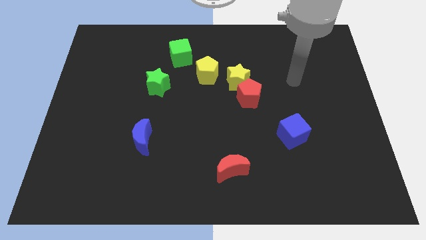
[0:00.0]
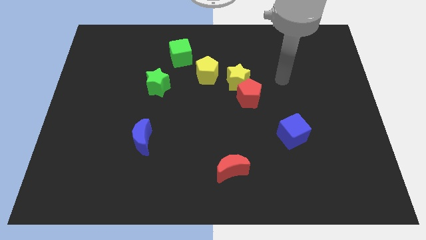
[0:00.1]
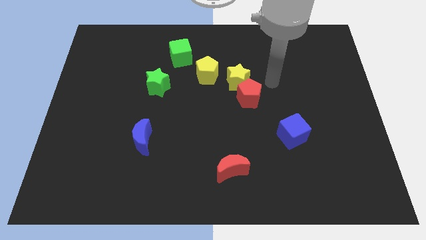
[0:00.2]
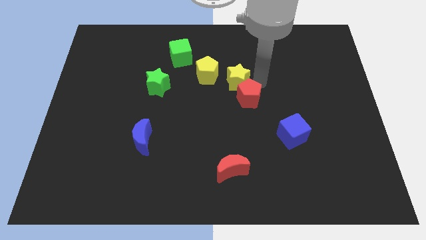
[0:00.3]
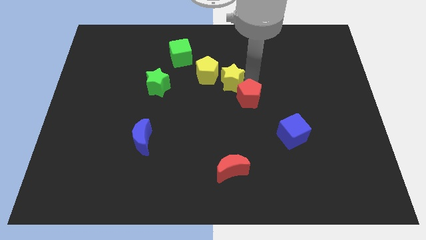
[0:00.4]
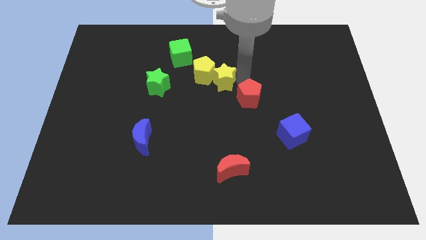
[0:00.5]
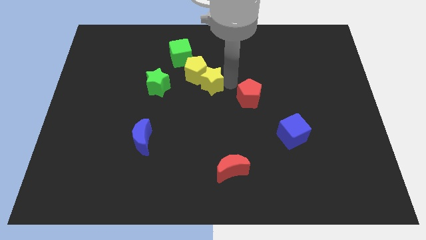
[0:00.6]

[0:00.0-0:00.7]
move the red pentagon away from the yellow star

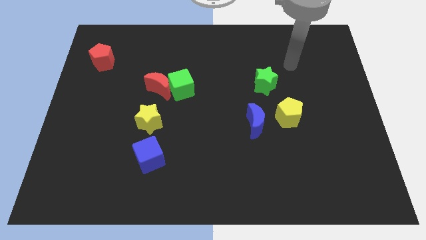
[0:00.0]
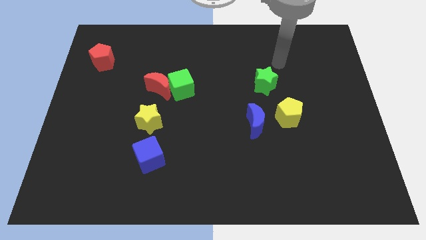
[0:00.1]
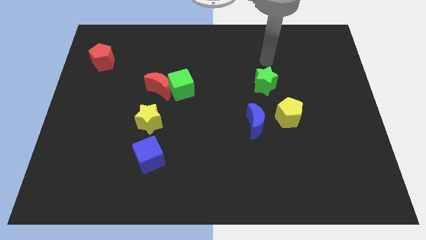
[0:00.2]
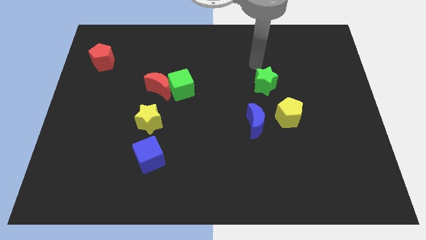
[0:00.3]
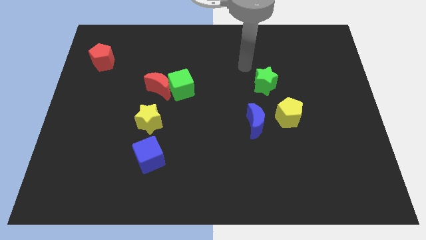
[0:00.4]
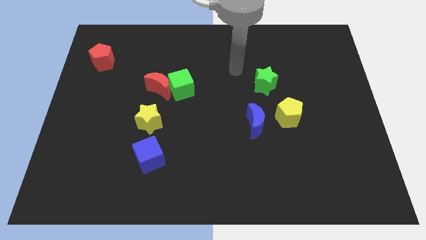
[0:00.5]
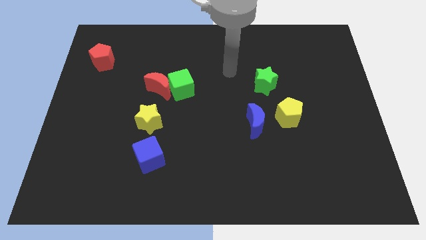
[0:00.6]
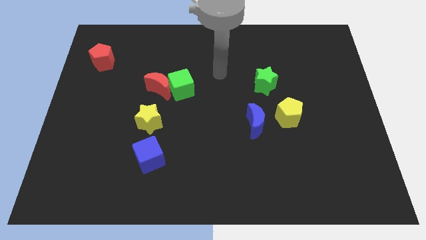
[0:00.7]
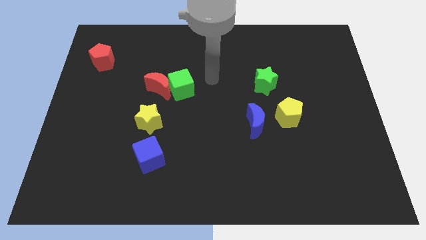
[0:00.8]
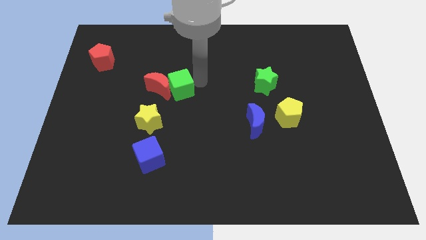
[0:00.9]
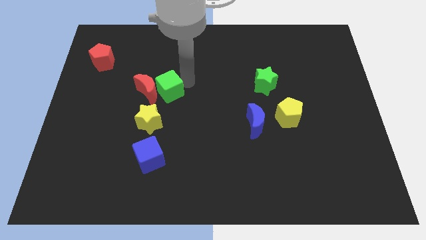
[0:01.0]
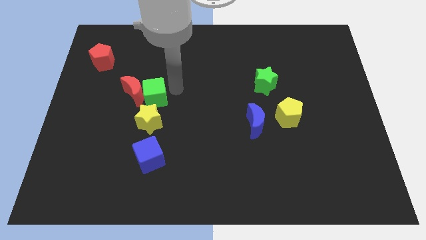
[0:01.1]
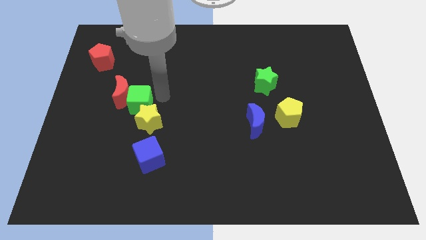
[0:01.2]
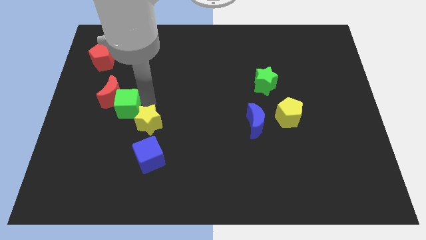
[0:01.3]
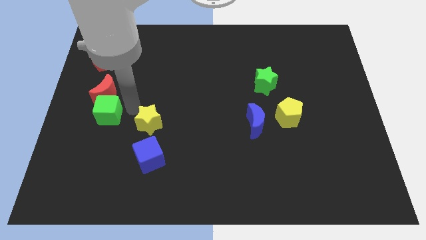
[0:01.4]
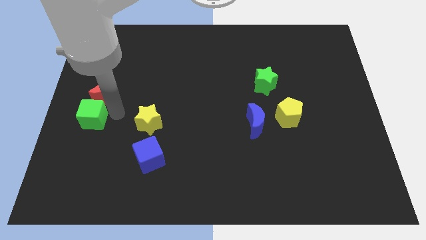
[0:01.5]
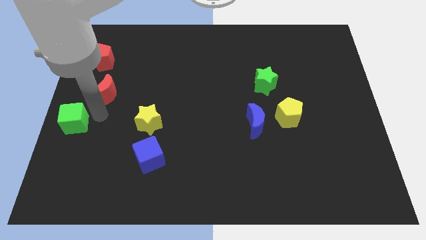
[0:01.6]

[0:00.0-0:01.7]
pull the red moon apart from the green cube

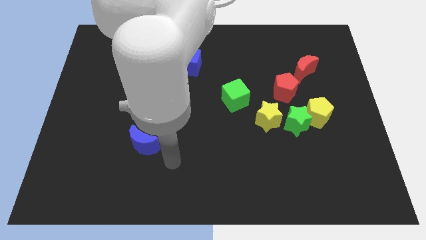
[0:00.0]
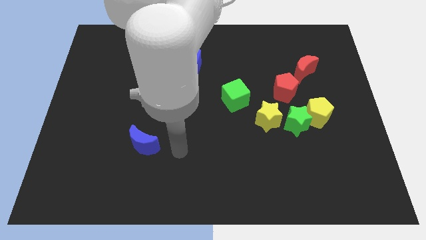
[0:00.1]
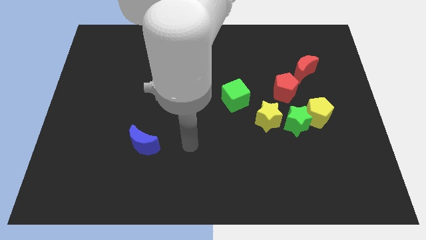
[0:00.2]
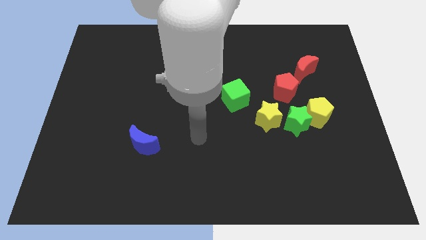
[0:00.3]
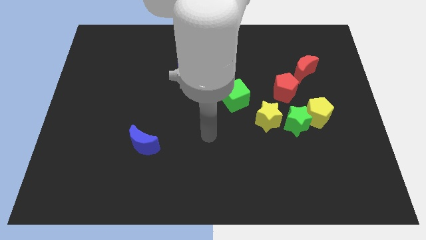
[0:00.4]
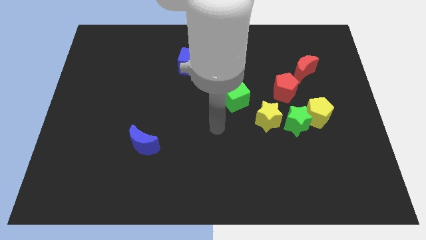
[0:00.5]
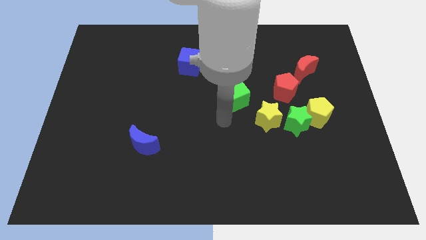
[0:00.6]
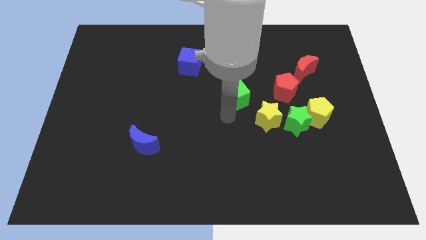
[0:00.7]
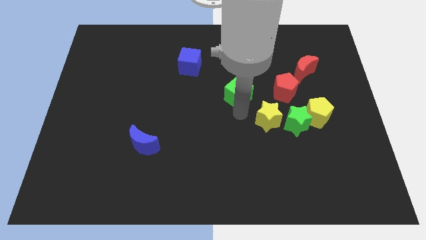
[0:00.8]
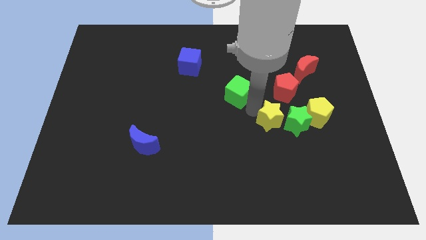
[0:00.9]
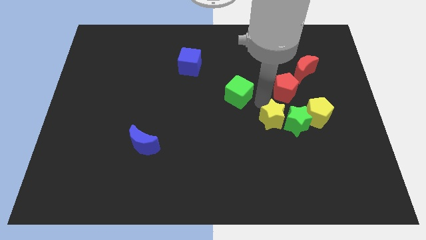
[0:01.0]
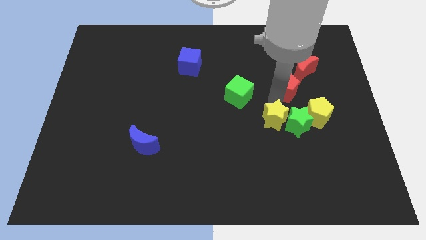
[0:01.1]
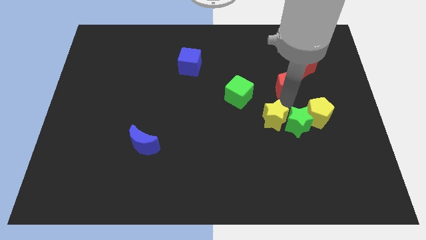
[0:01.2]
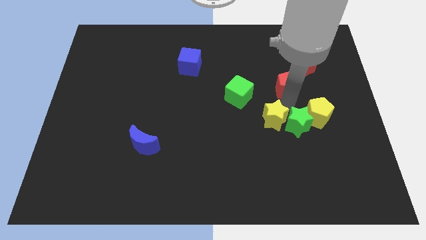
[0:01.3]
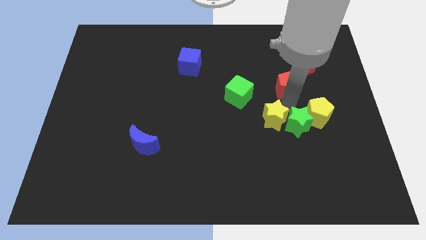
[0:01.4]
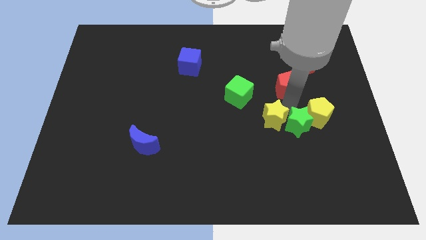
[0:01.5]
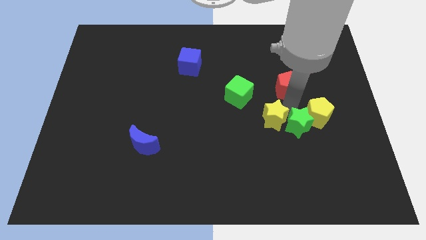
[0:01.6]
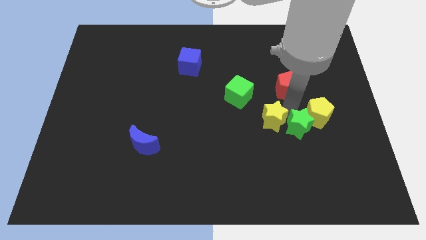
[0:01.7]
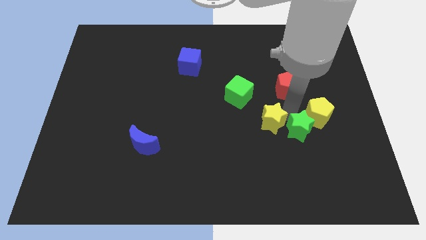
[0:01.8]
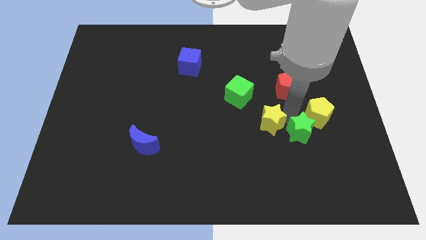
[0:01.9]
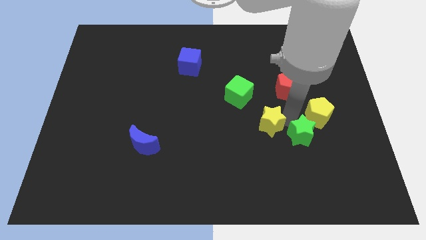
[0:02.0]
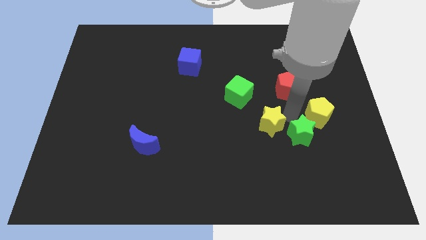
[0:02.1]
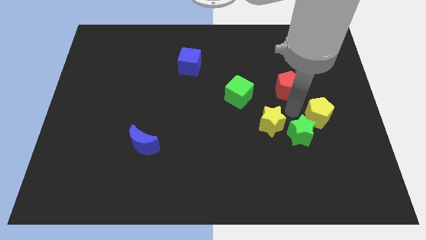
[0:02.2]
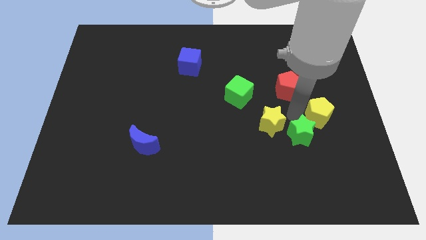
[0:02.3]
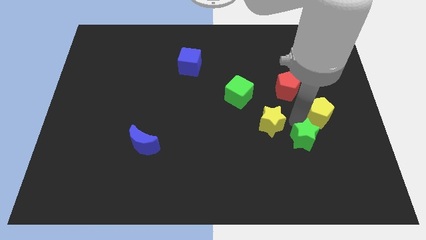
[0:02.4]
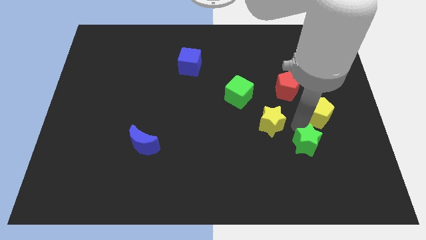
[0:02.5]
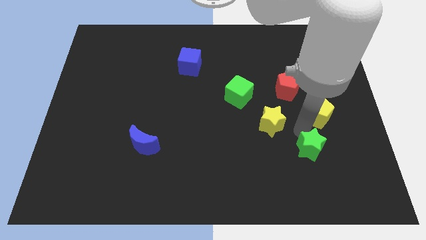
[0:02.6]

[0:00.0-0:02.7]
pull the green star apart from the yellow pentagon, yellow star, and red pentagon

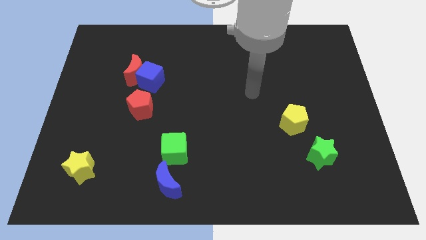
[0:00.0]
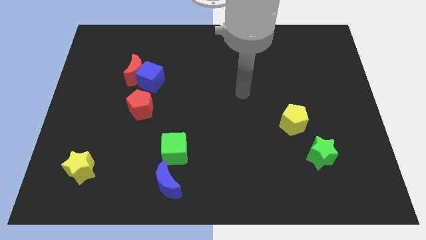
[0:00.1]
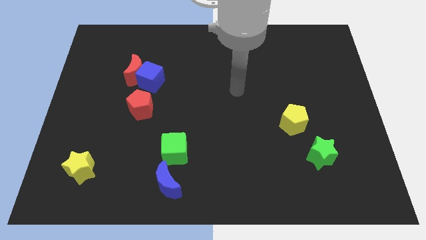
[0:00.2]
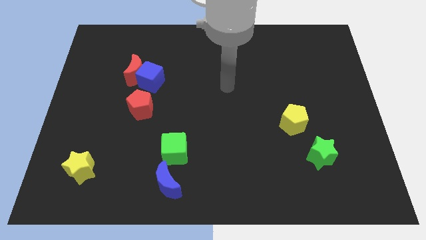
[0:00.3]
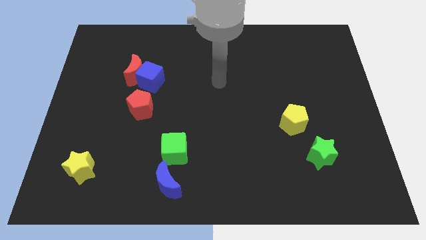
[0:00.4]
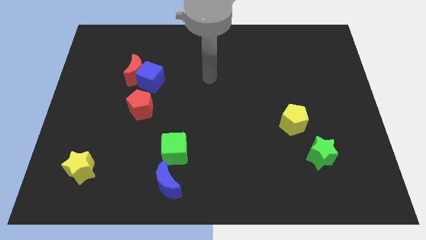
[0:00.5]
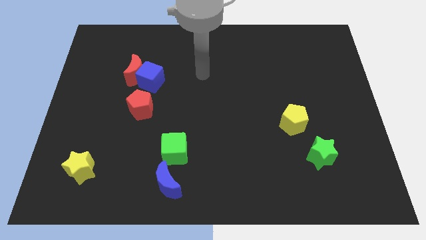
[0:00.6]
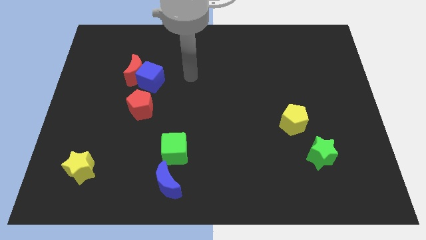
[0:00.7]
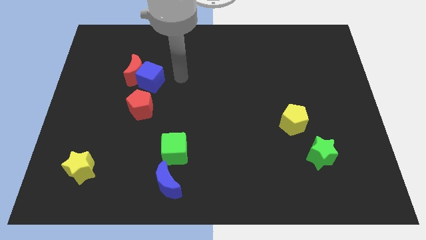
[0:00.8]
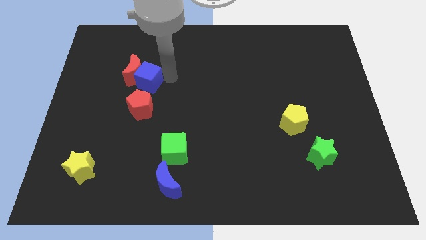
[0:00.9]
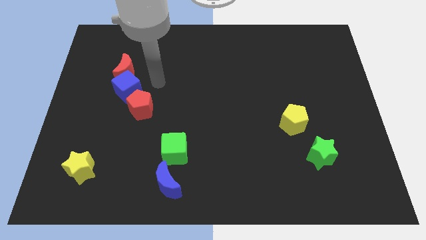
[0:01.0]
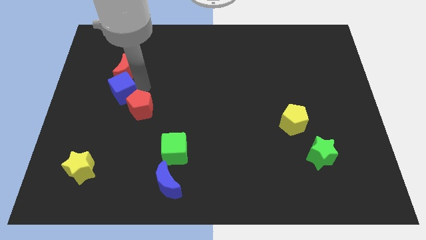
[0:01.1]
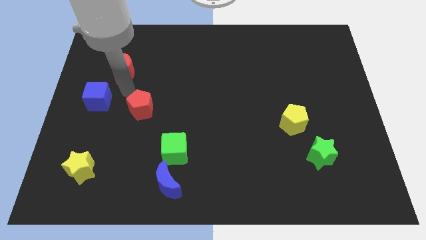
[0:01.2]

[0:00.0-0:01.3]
pull the red moon apart from the blue cube

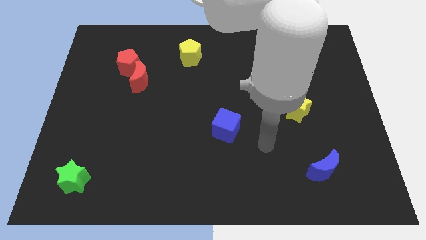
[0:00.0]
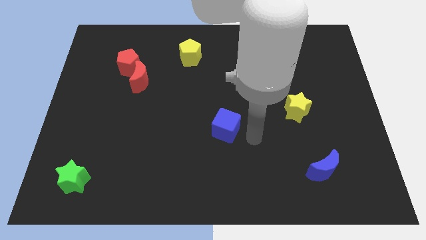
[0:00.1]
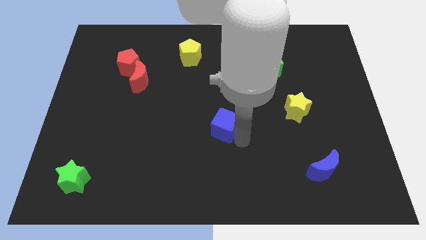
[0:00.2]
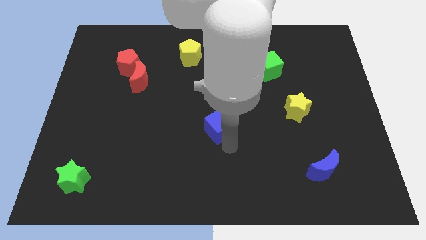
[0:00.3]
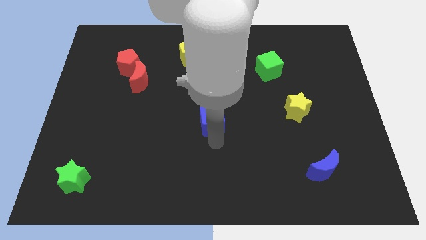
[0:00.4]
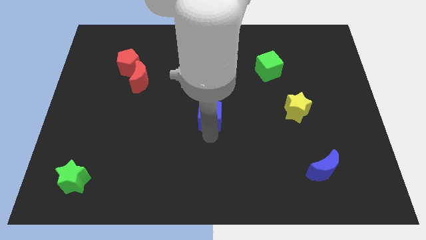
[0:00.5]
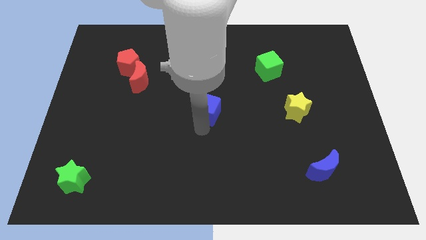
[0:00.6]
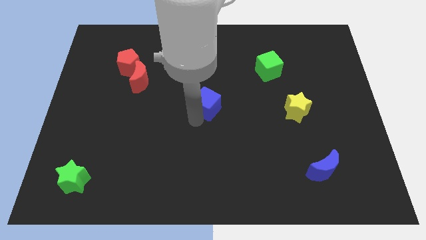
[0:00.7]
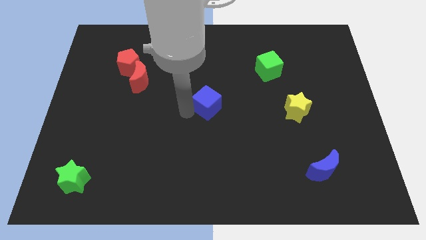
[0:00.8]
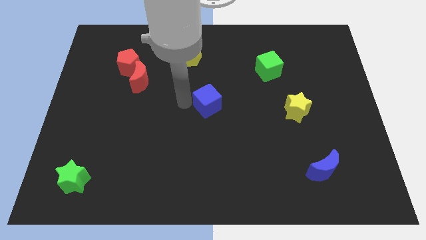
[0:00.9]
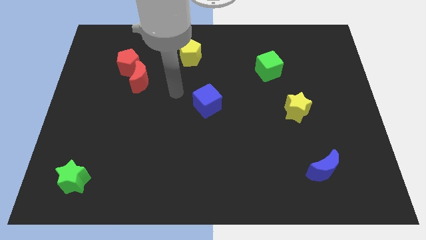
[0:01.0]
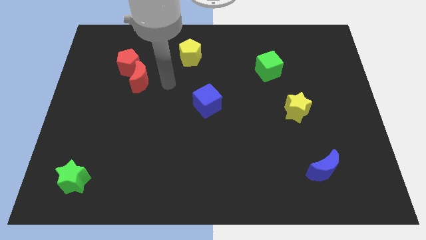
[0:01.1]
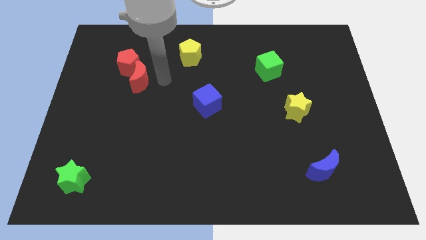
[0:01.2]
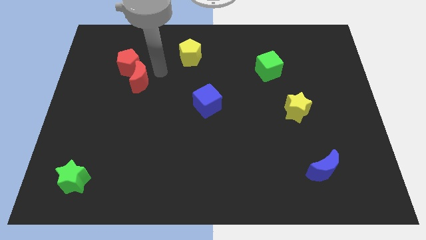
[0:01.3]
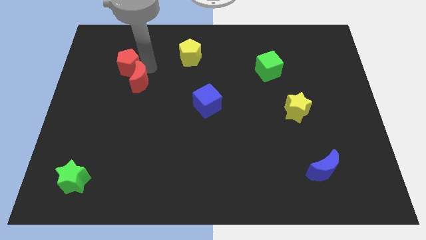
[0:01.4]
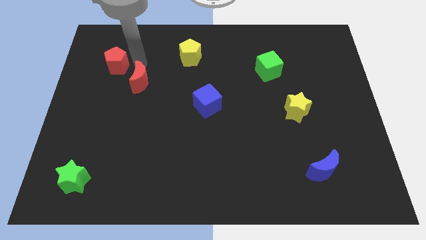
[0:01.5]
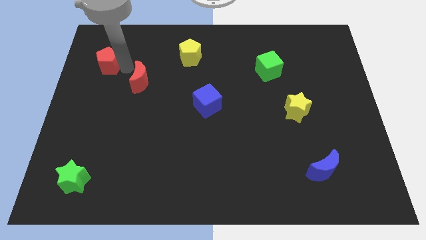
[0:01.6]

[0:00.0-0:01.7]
pull the red moon apart from the red pentagon

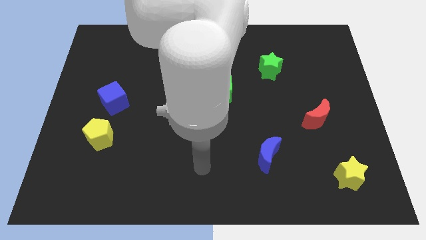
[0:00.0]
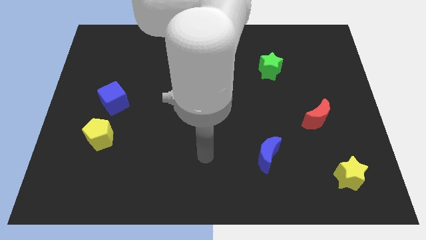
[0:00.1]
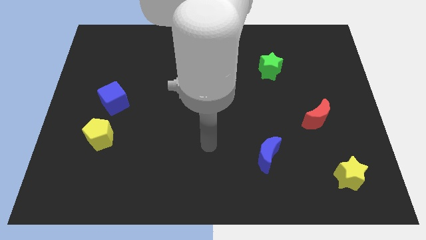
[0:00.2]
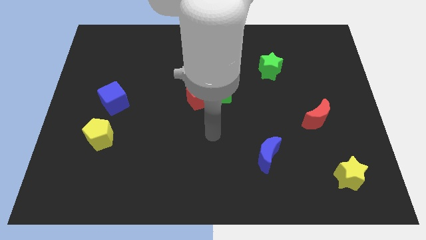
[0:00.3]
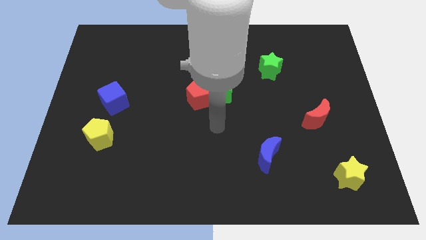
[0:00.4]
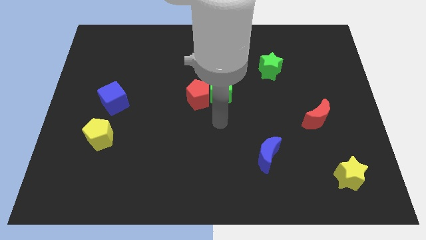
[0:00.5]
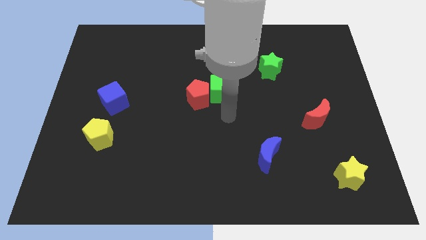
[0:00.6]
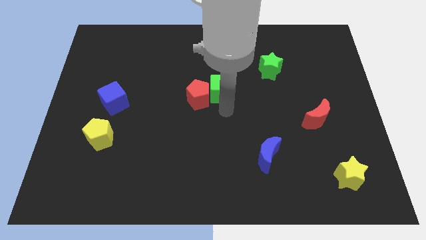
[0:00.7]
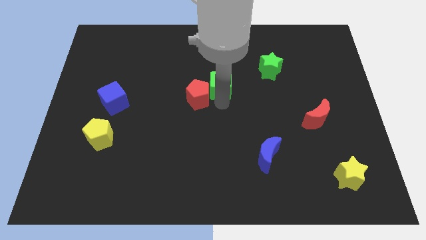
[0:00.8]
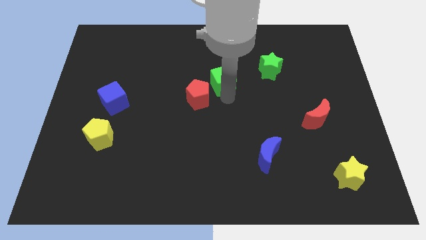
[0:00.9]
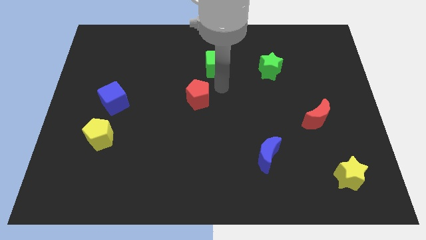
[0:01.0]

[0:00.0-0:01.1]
move the red pentagon away from the green cube
